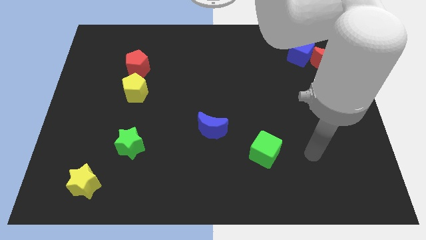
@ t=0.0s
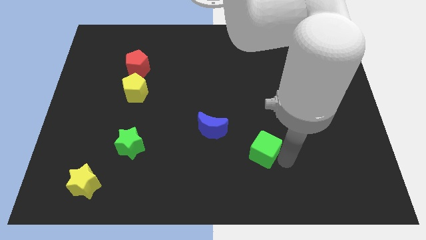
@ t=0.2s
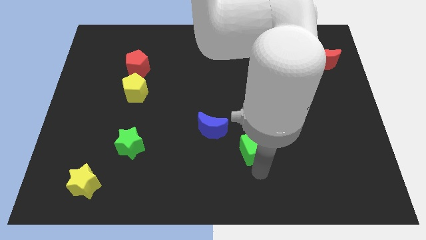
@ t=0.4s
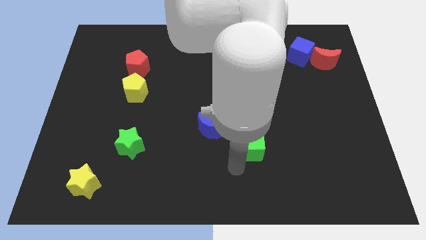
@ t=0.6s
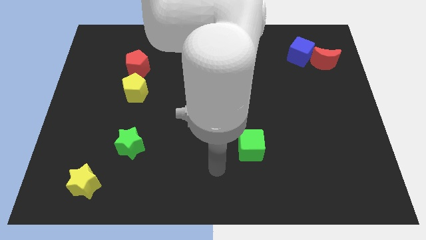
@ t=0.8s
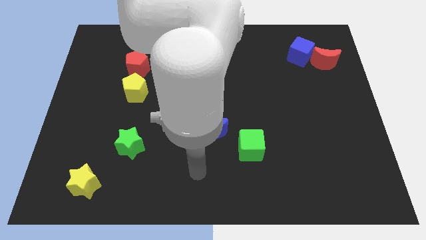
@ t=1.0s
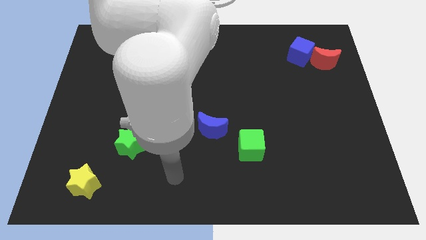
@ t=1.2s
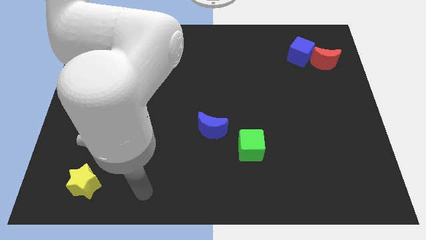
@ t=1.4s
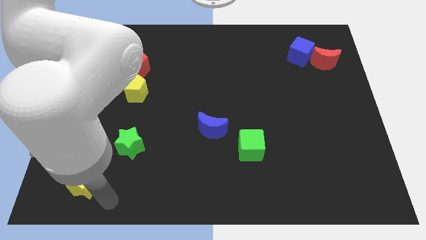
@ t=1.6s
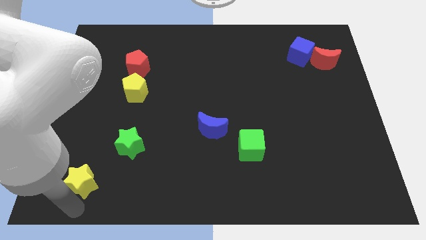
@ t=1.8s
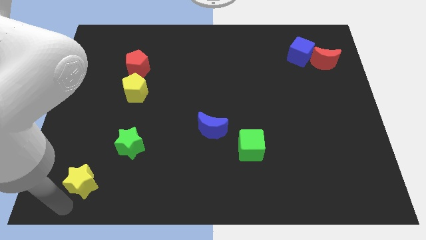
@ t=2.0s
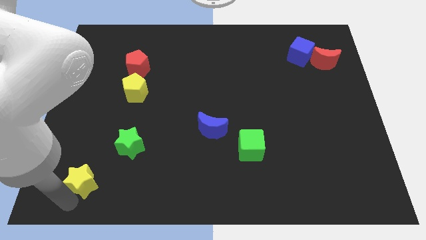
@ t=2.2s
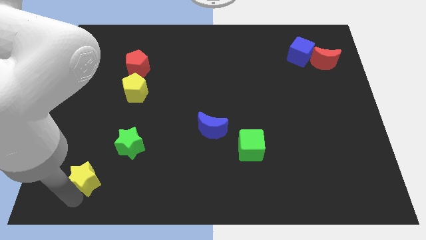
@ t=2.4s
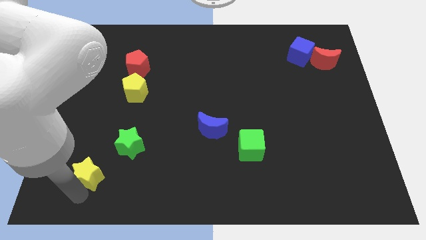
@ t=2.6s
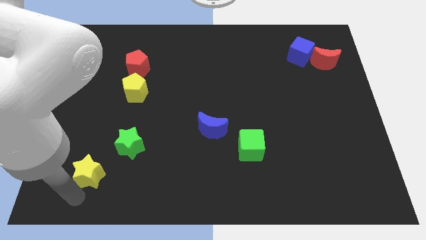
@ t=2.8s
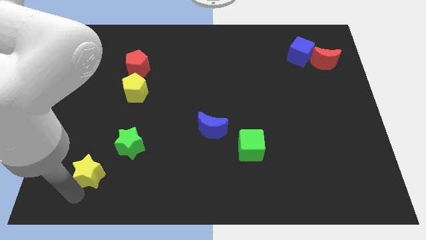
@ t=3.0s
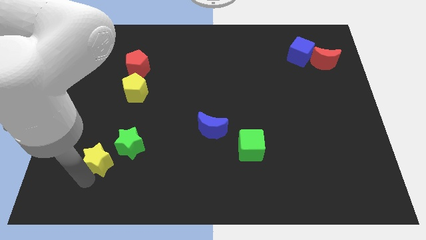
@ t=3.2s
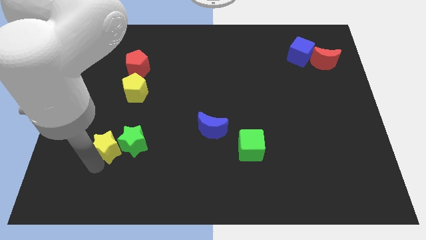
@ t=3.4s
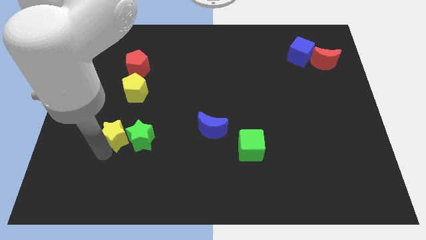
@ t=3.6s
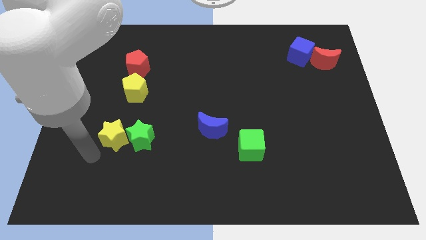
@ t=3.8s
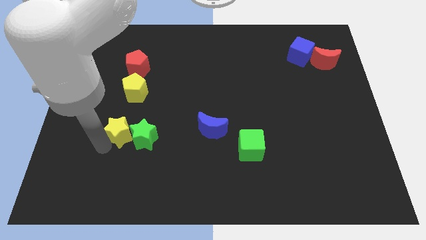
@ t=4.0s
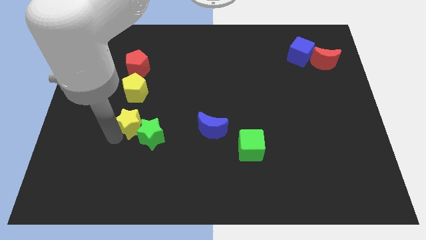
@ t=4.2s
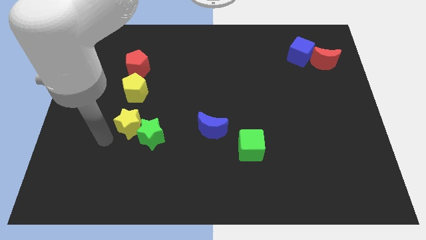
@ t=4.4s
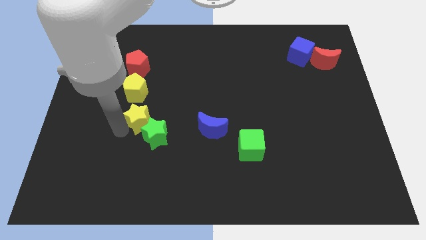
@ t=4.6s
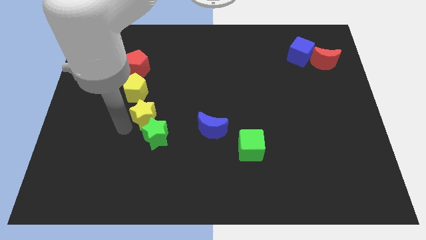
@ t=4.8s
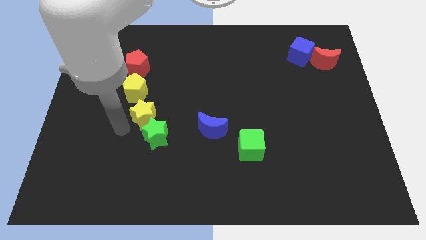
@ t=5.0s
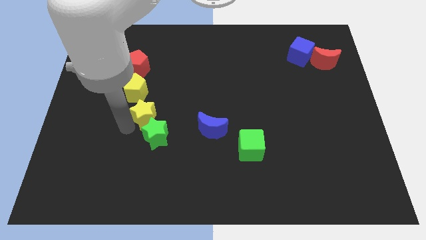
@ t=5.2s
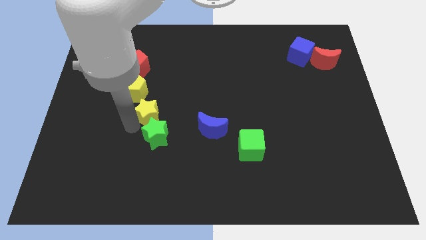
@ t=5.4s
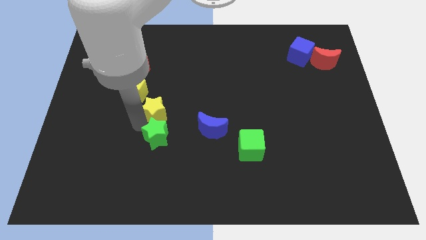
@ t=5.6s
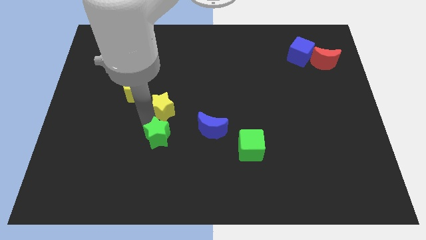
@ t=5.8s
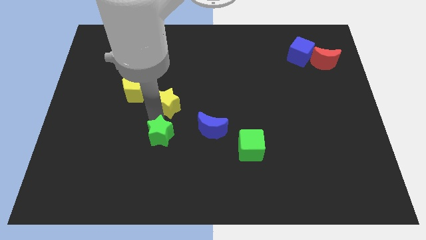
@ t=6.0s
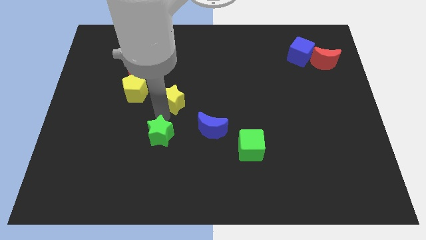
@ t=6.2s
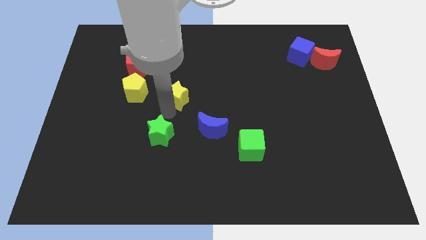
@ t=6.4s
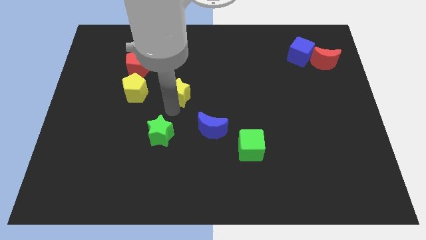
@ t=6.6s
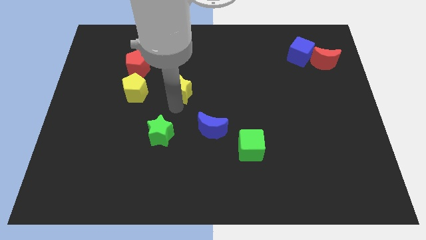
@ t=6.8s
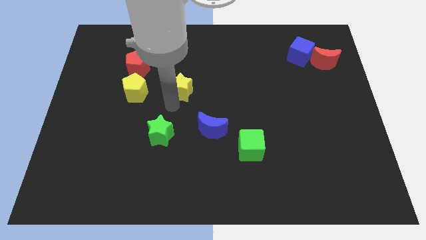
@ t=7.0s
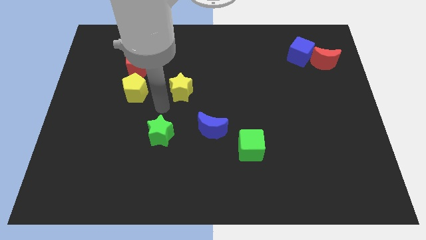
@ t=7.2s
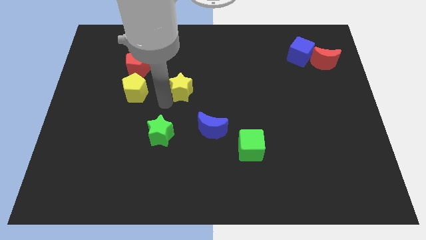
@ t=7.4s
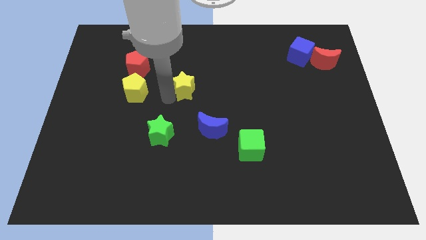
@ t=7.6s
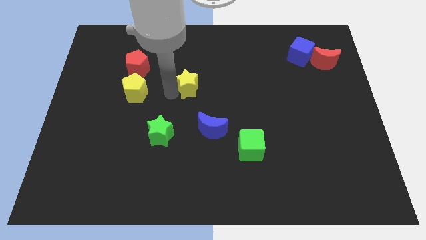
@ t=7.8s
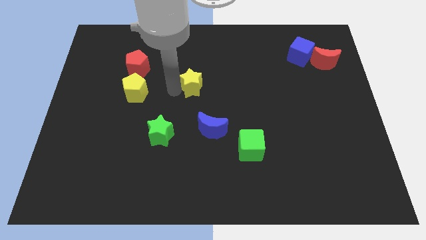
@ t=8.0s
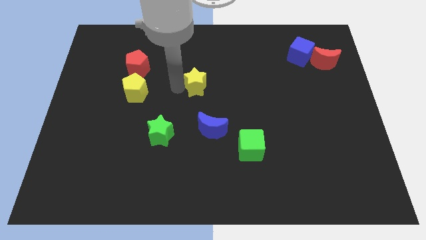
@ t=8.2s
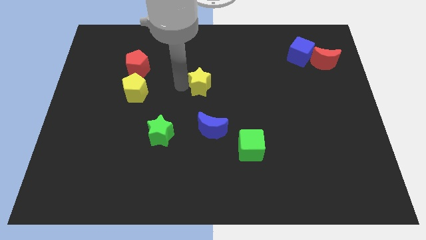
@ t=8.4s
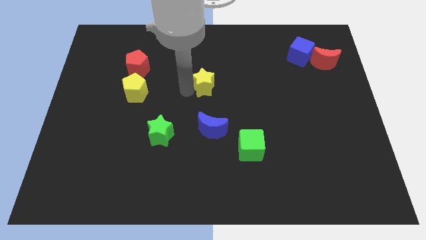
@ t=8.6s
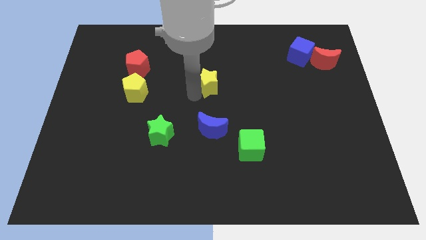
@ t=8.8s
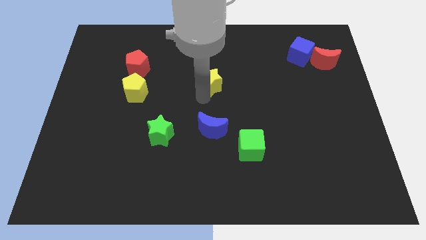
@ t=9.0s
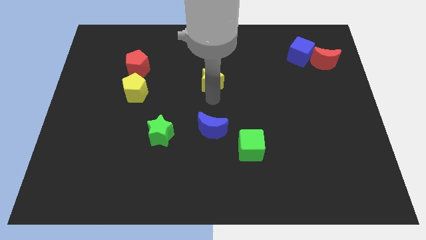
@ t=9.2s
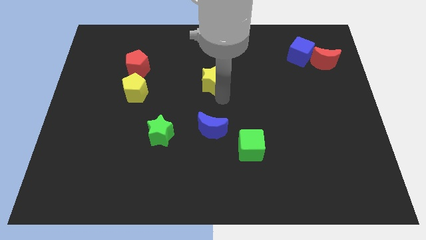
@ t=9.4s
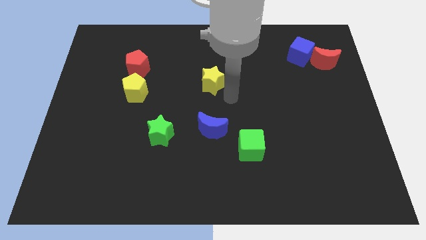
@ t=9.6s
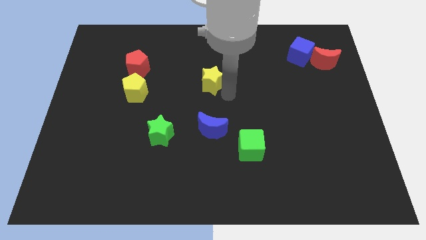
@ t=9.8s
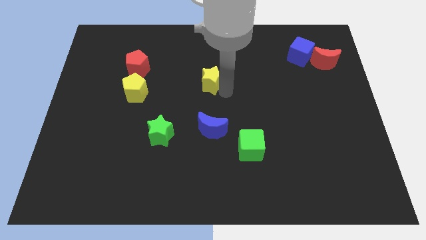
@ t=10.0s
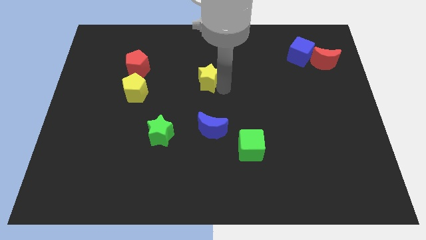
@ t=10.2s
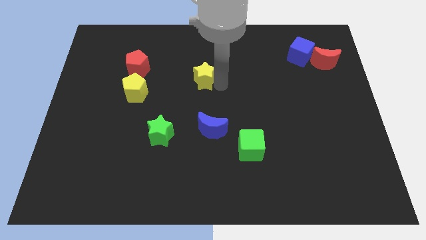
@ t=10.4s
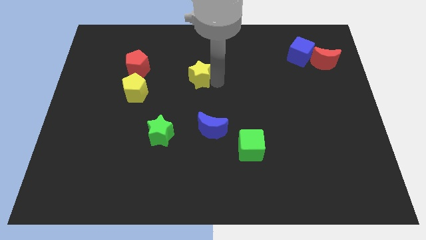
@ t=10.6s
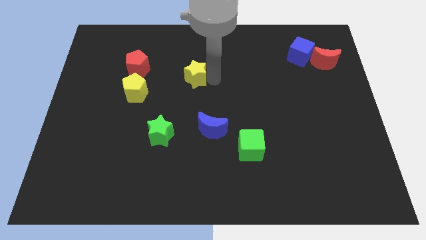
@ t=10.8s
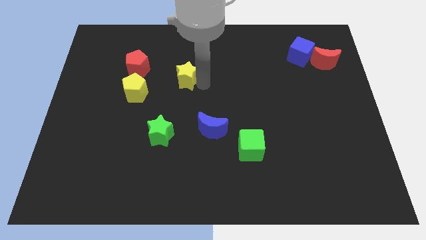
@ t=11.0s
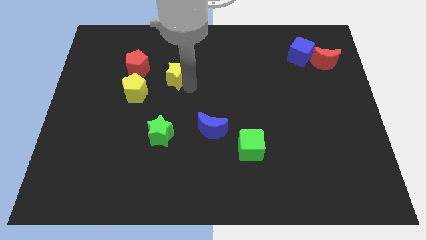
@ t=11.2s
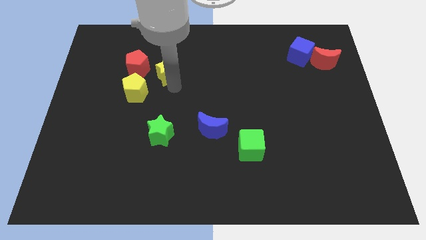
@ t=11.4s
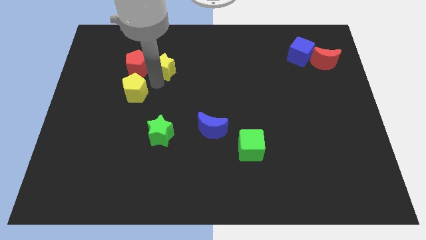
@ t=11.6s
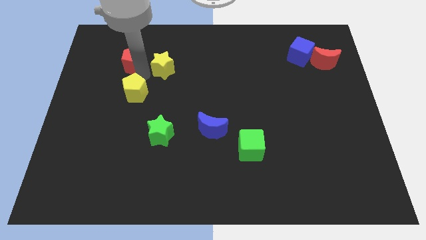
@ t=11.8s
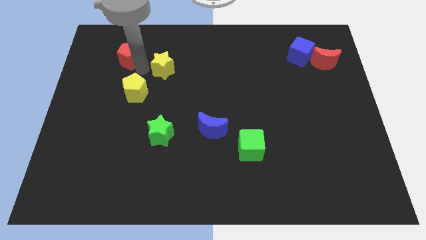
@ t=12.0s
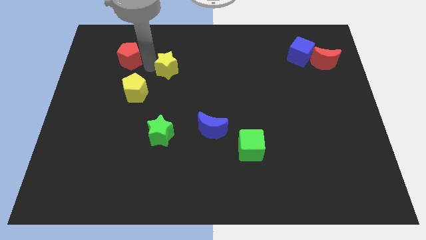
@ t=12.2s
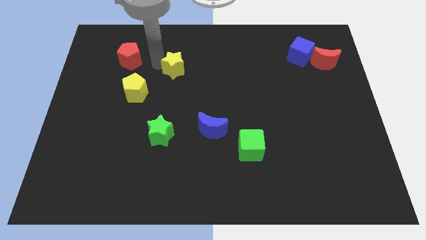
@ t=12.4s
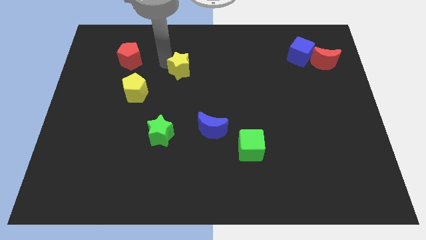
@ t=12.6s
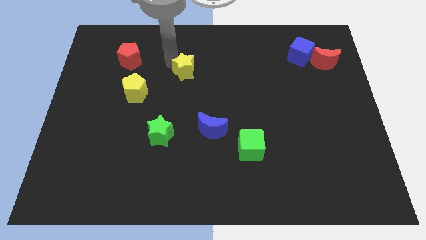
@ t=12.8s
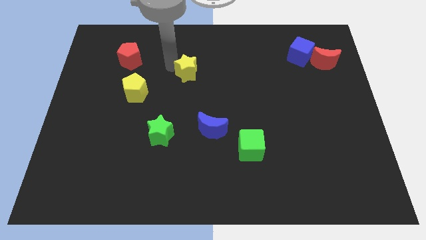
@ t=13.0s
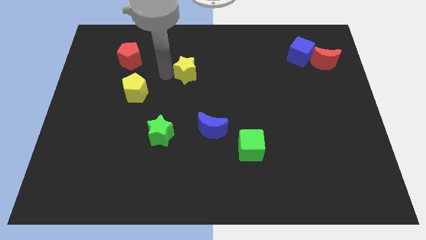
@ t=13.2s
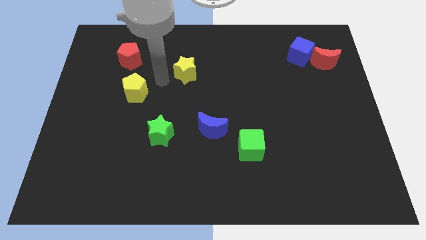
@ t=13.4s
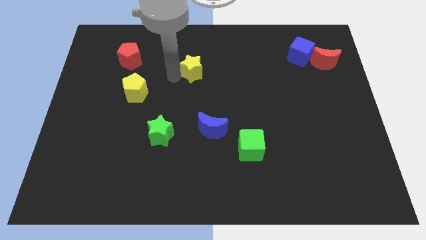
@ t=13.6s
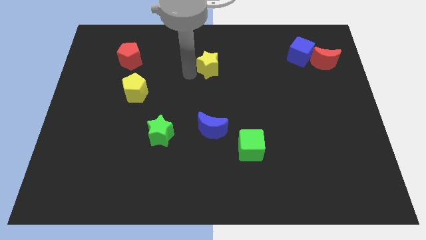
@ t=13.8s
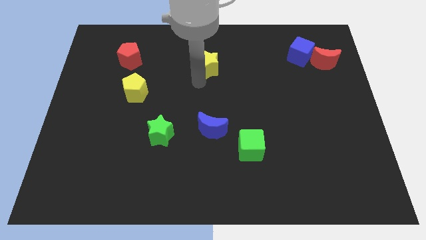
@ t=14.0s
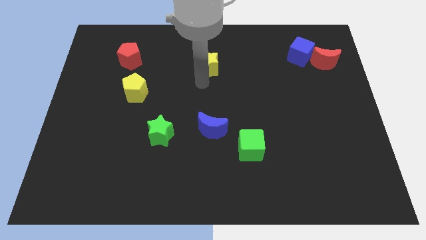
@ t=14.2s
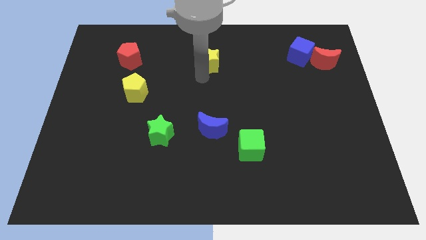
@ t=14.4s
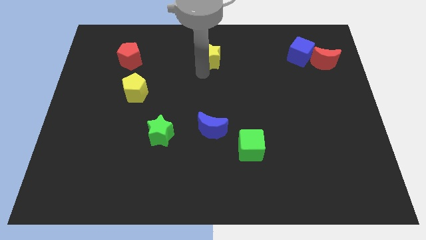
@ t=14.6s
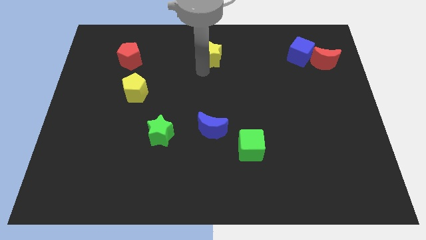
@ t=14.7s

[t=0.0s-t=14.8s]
push the yellow star to the top
